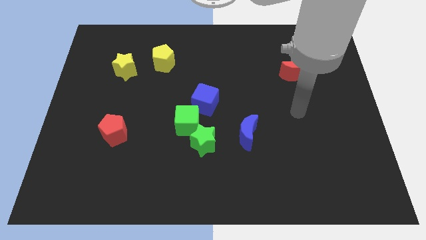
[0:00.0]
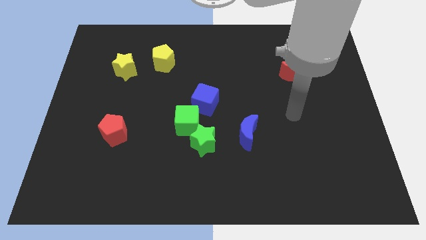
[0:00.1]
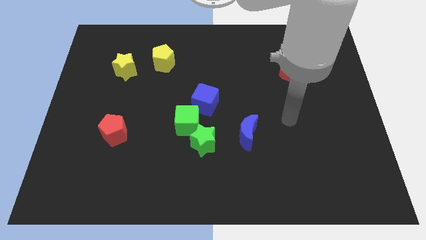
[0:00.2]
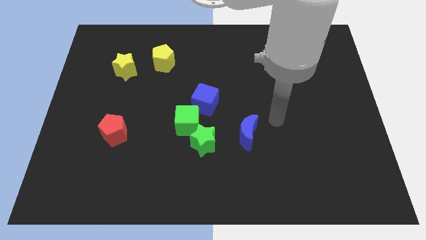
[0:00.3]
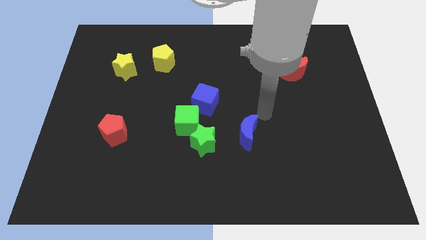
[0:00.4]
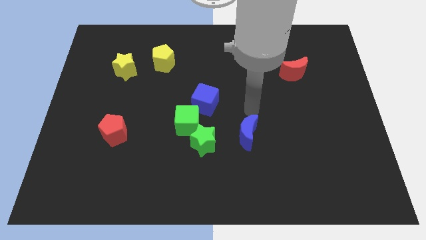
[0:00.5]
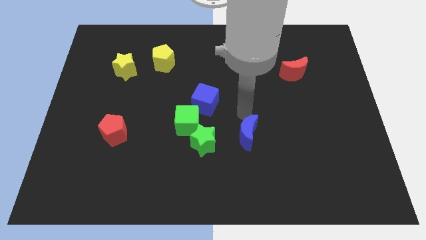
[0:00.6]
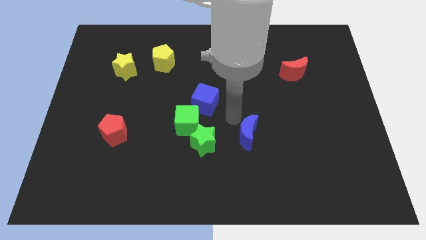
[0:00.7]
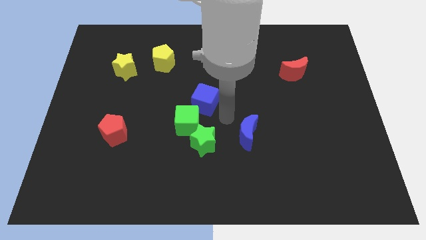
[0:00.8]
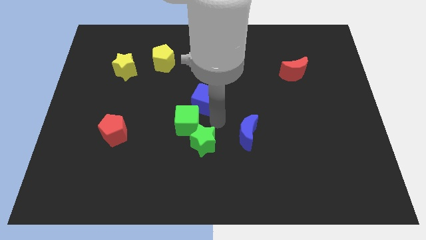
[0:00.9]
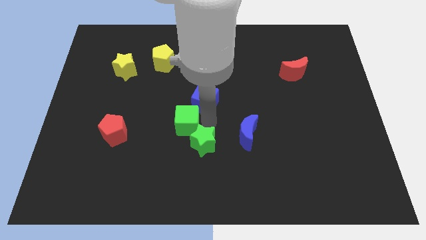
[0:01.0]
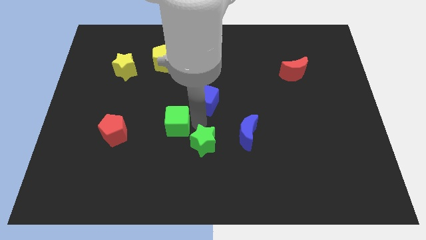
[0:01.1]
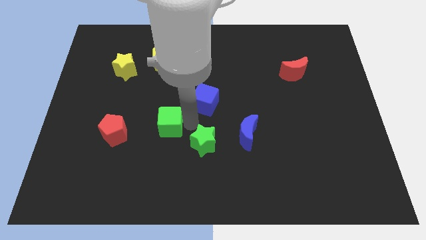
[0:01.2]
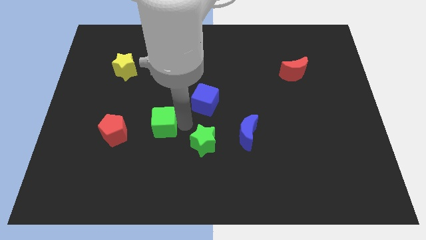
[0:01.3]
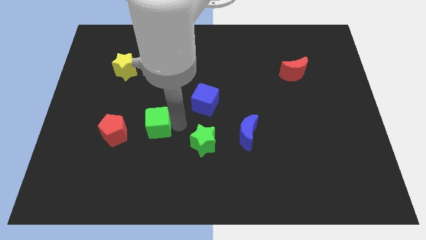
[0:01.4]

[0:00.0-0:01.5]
pull the green cube apart from the green star and blue cube

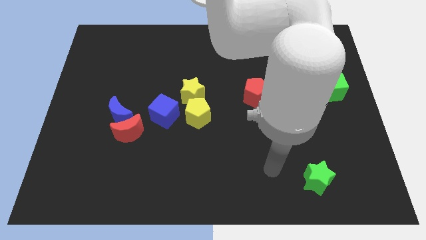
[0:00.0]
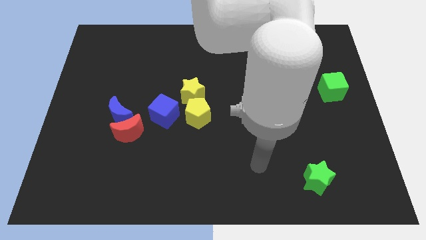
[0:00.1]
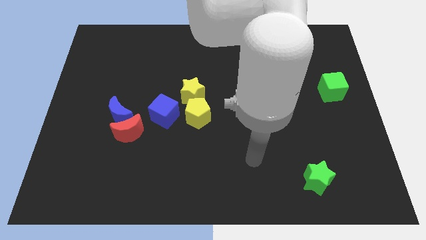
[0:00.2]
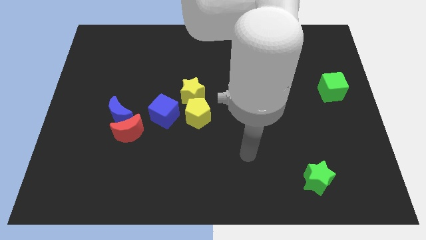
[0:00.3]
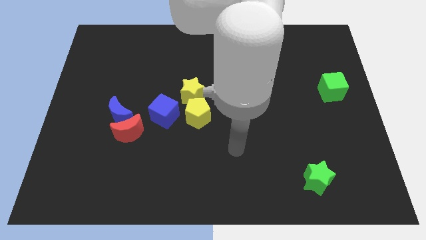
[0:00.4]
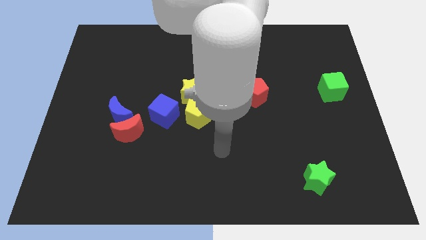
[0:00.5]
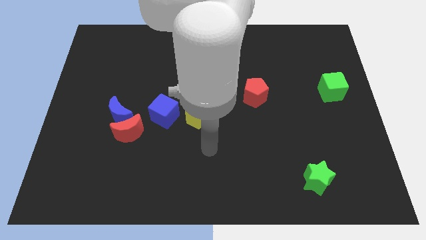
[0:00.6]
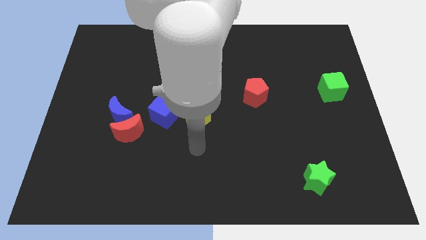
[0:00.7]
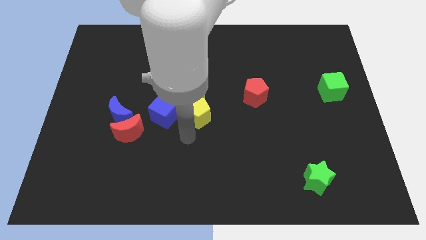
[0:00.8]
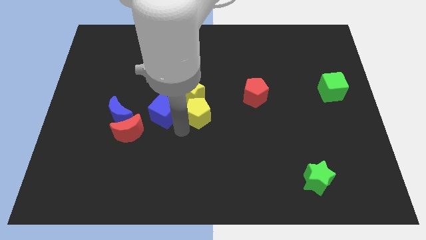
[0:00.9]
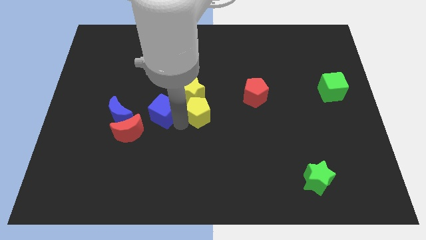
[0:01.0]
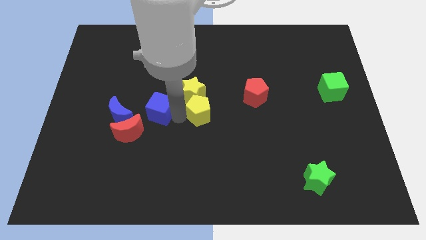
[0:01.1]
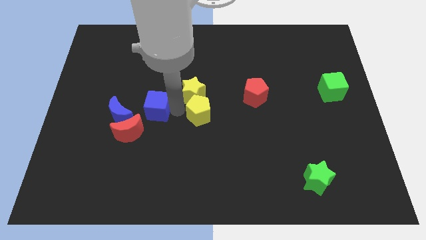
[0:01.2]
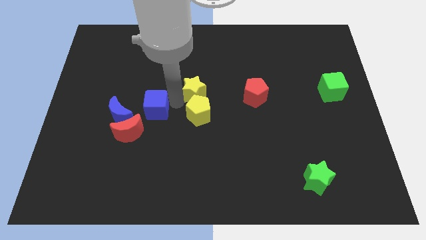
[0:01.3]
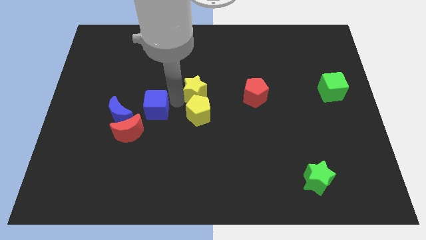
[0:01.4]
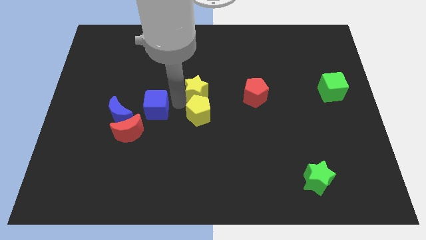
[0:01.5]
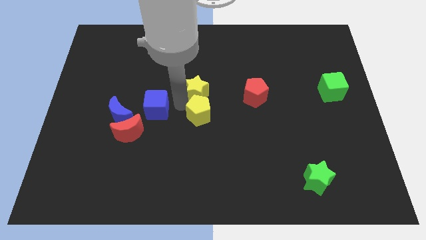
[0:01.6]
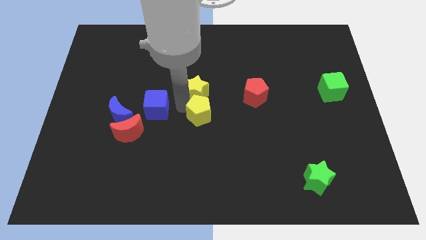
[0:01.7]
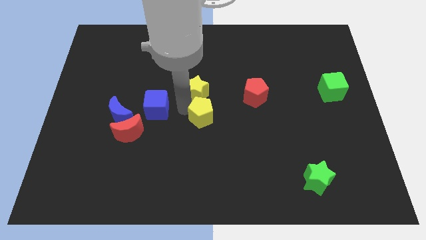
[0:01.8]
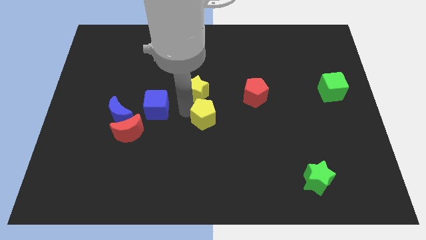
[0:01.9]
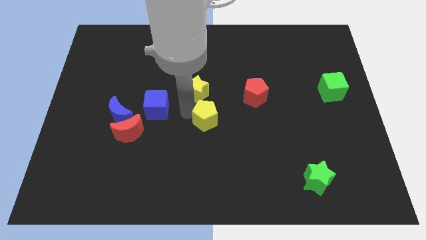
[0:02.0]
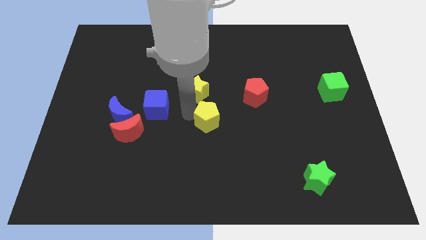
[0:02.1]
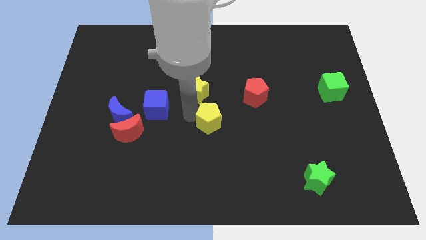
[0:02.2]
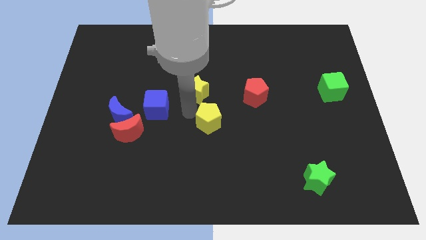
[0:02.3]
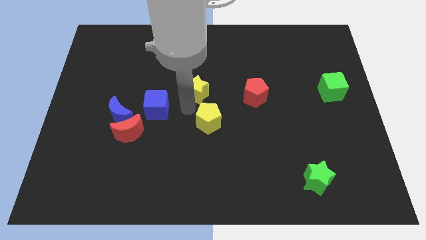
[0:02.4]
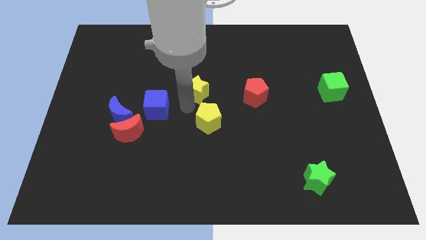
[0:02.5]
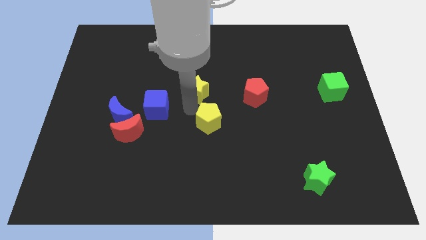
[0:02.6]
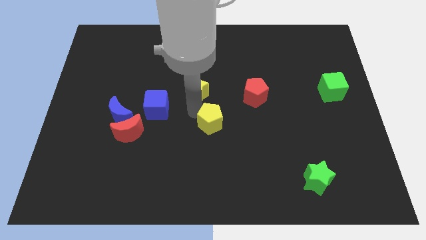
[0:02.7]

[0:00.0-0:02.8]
pull the yellow pentagon apart from the yellow star and blue cube

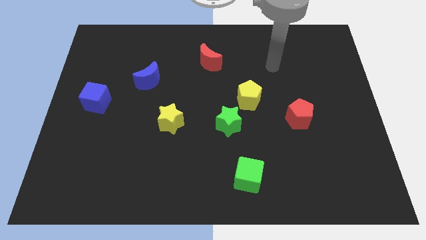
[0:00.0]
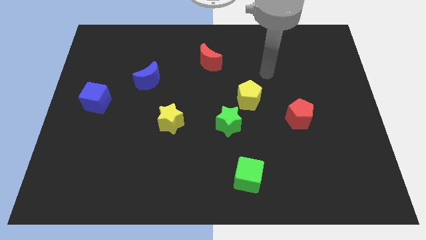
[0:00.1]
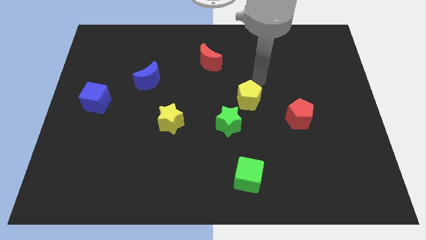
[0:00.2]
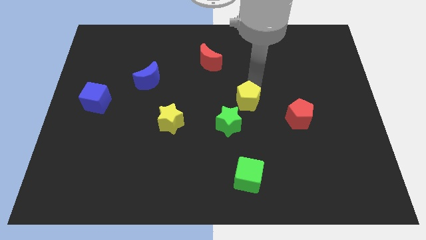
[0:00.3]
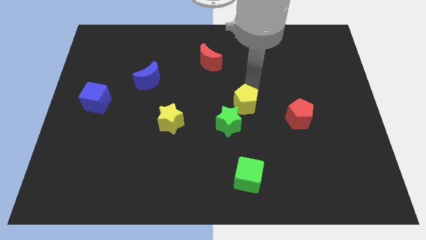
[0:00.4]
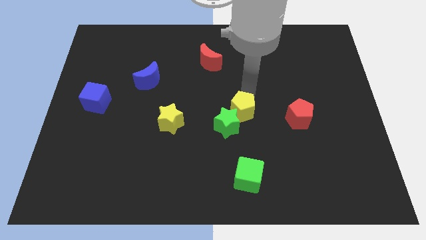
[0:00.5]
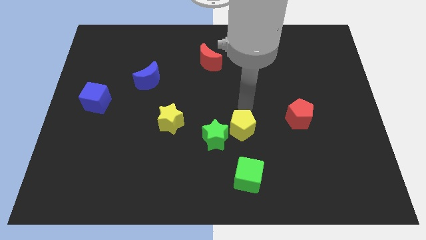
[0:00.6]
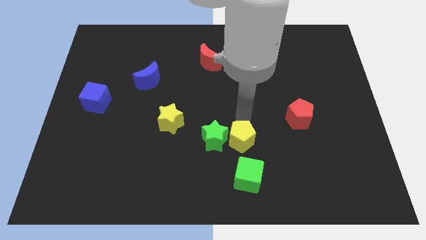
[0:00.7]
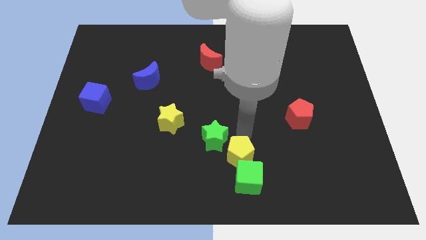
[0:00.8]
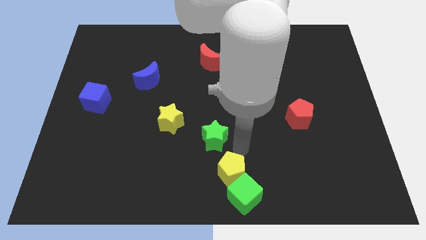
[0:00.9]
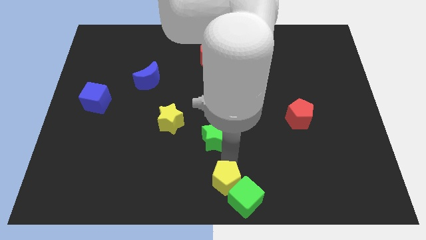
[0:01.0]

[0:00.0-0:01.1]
move the green star away from the yellow pentagon

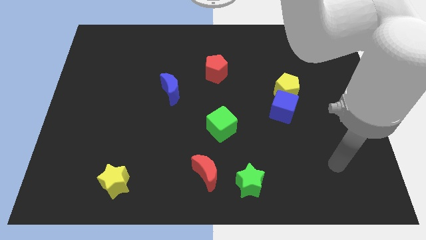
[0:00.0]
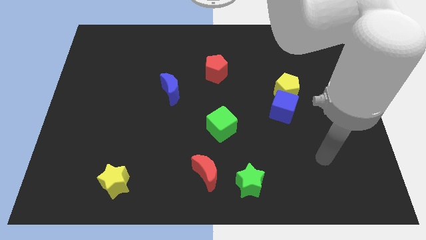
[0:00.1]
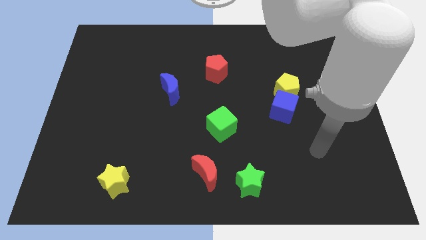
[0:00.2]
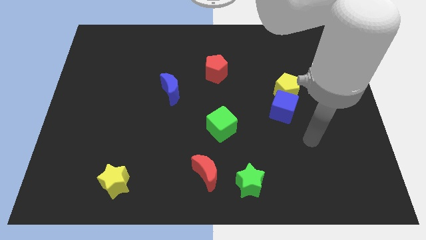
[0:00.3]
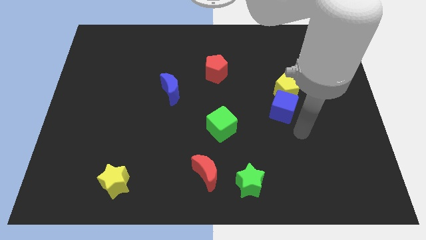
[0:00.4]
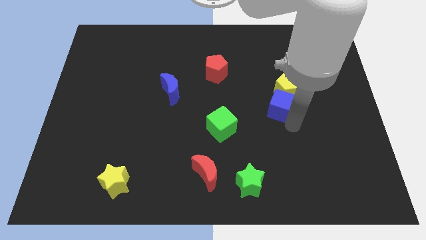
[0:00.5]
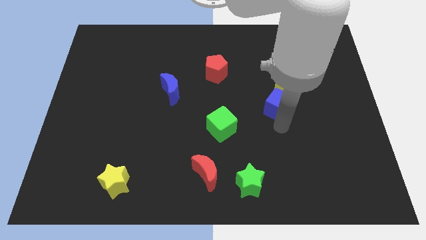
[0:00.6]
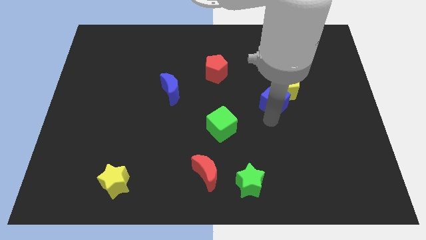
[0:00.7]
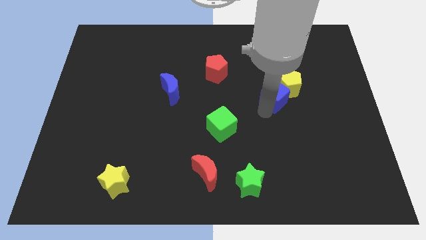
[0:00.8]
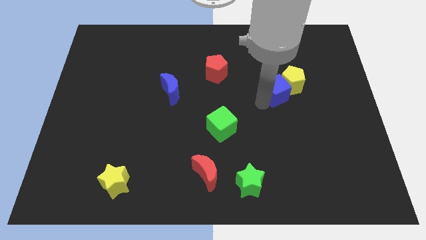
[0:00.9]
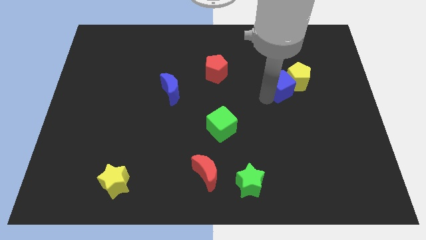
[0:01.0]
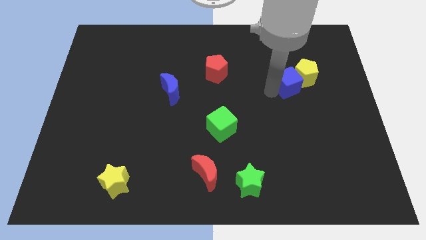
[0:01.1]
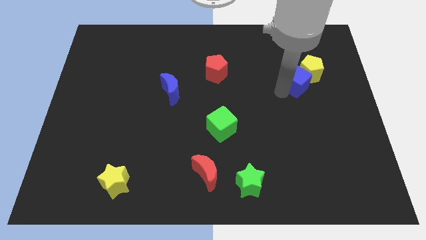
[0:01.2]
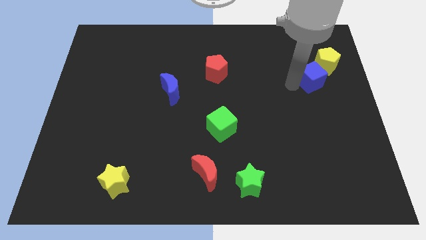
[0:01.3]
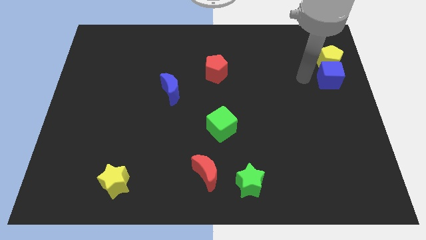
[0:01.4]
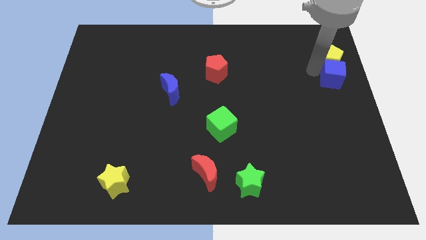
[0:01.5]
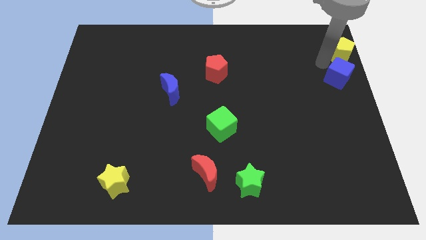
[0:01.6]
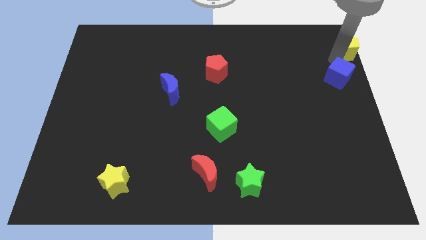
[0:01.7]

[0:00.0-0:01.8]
pull the blue cube apart from the yellow pentagon

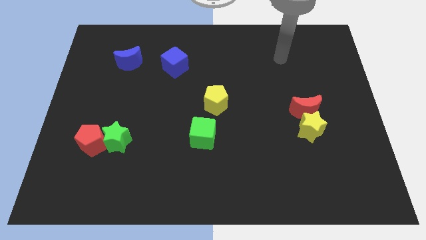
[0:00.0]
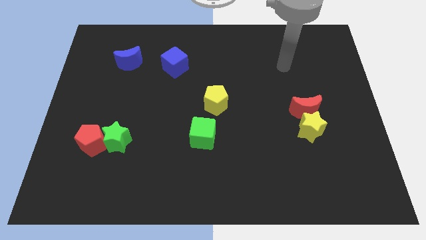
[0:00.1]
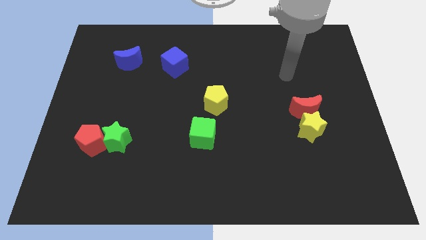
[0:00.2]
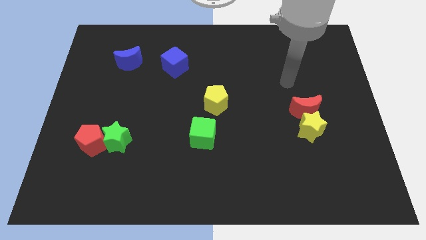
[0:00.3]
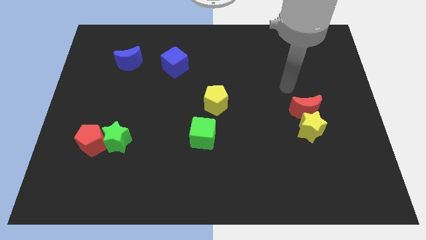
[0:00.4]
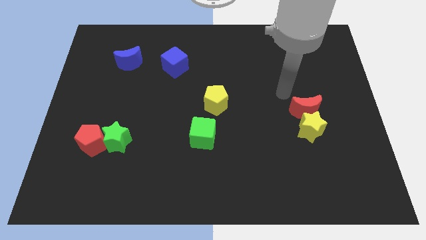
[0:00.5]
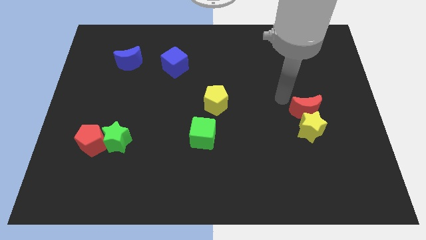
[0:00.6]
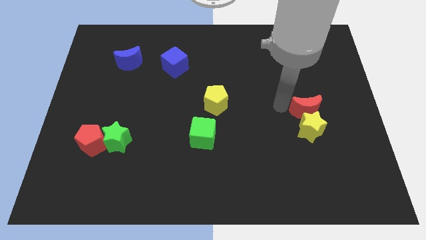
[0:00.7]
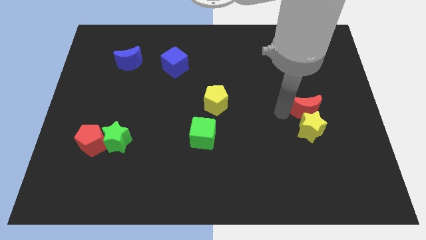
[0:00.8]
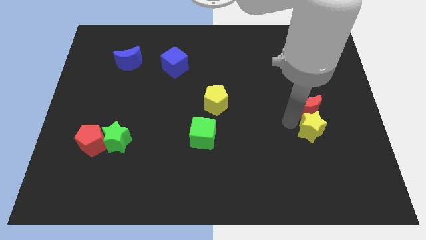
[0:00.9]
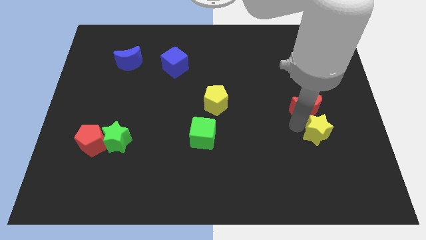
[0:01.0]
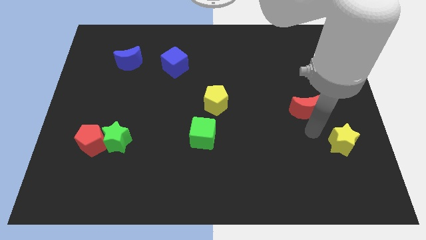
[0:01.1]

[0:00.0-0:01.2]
move the red moon away from the yellow star

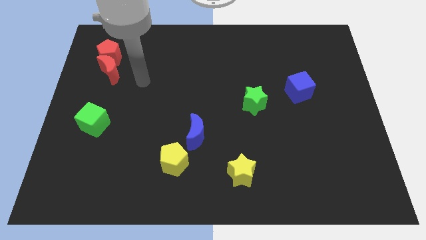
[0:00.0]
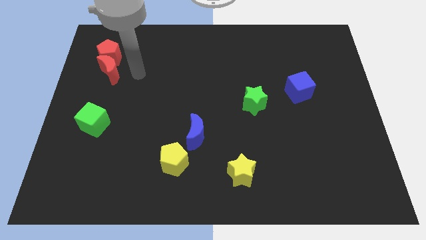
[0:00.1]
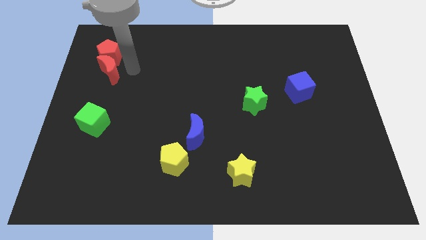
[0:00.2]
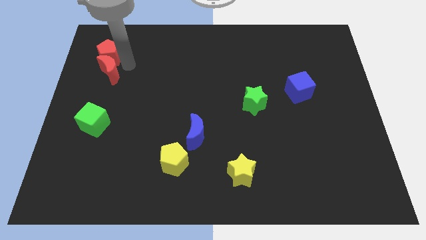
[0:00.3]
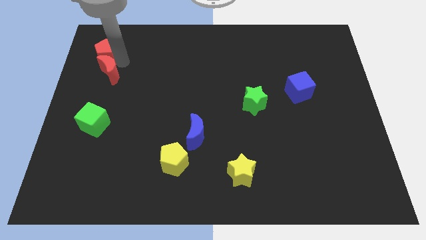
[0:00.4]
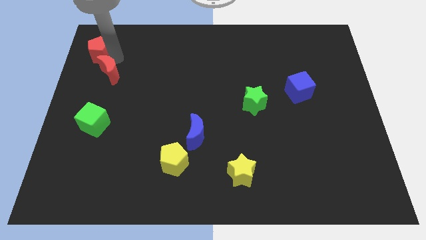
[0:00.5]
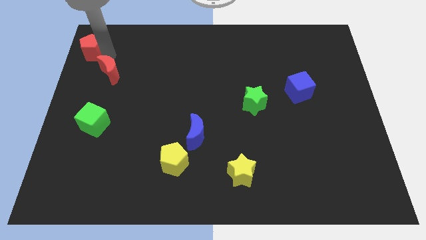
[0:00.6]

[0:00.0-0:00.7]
move the red moon away from the red pentagon

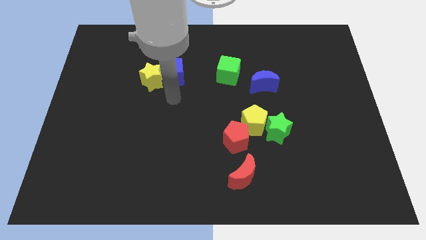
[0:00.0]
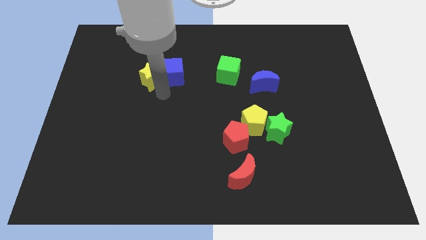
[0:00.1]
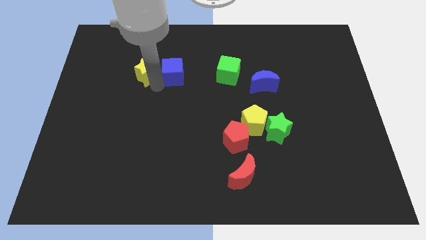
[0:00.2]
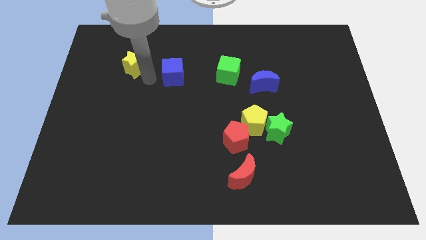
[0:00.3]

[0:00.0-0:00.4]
move the blue cube away from the yellow star
